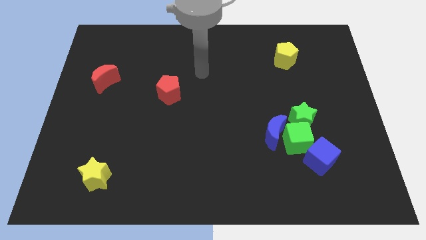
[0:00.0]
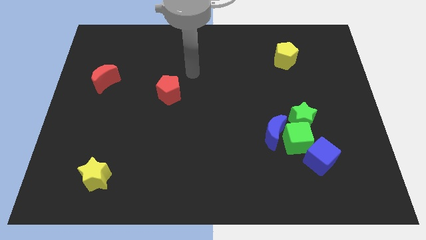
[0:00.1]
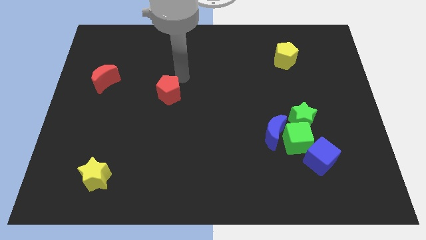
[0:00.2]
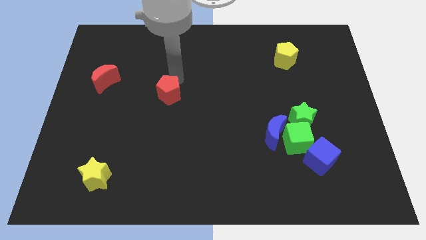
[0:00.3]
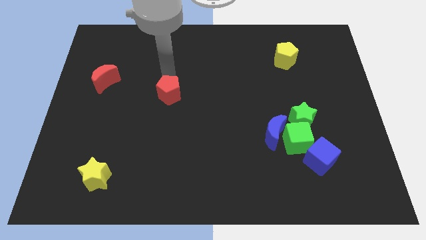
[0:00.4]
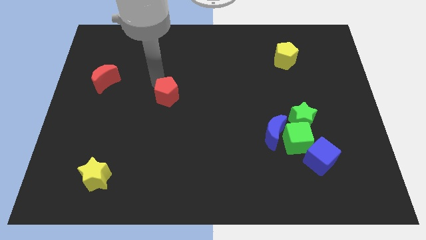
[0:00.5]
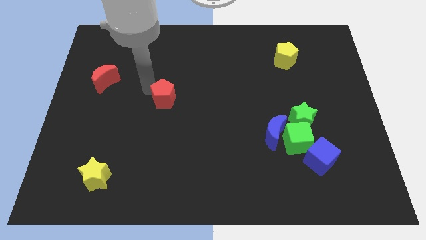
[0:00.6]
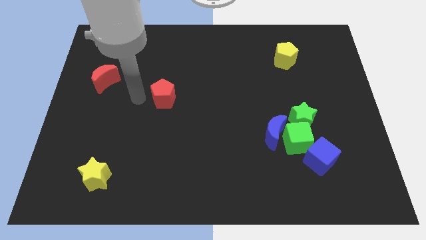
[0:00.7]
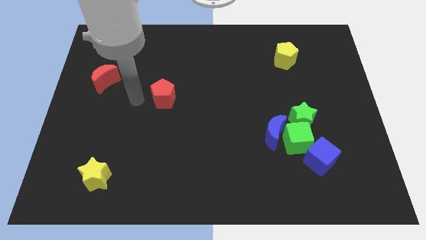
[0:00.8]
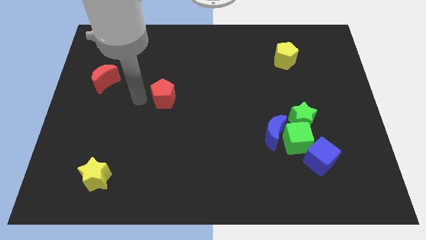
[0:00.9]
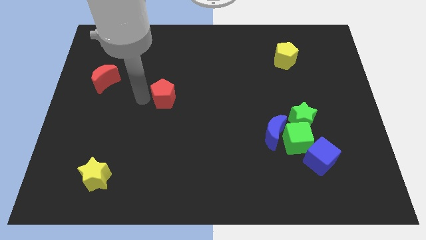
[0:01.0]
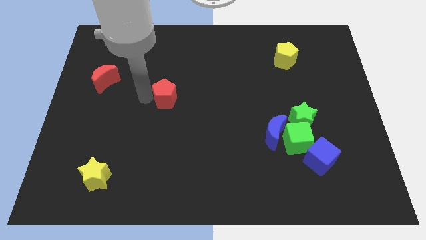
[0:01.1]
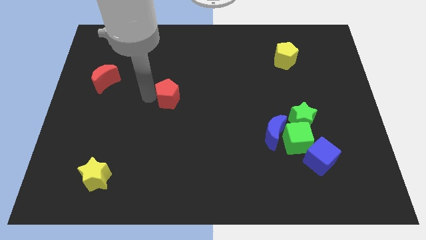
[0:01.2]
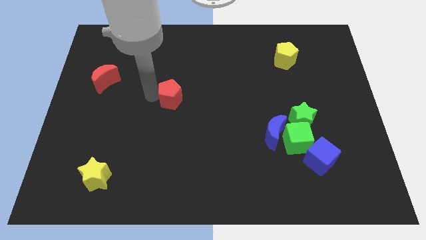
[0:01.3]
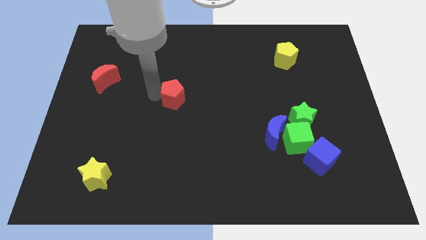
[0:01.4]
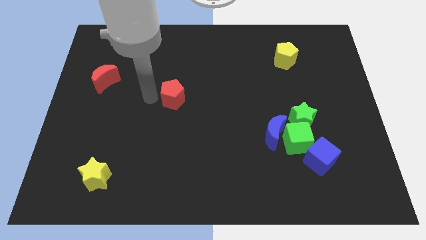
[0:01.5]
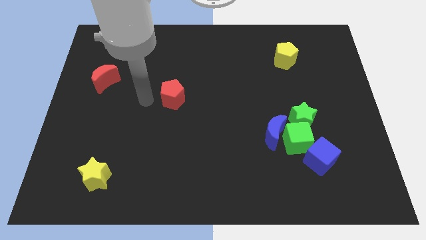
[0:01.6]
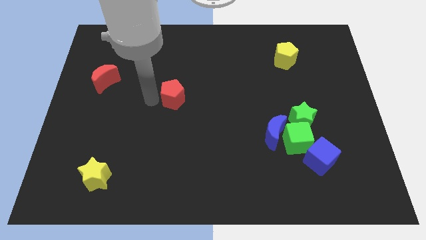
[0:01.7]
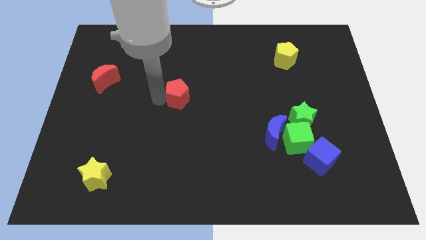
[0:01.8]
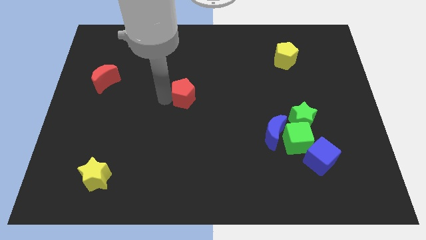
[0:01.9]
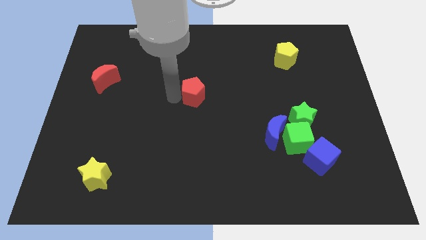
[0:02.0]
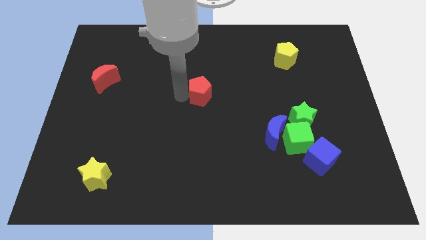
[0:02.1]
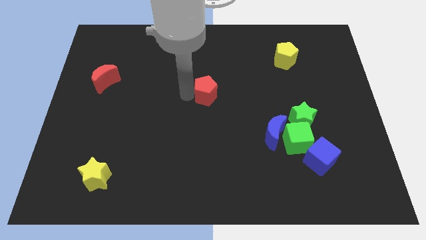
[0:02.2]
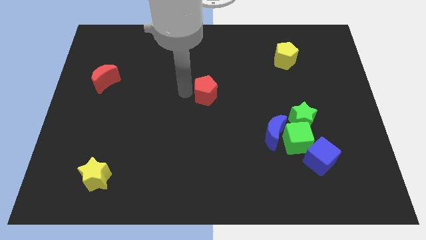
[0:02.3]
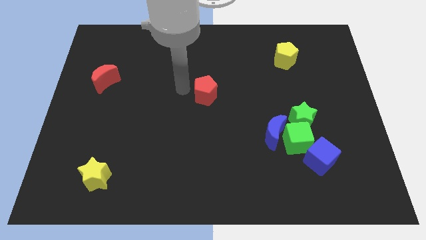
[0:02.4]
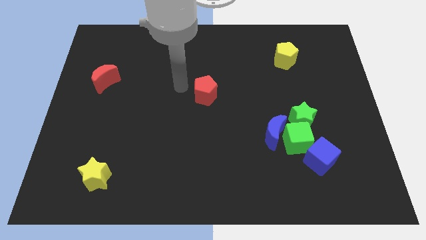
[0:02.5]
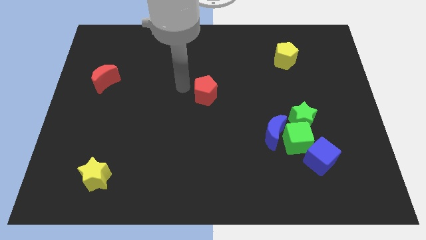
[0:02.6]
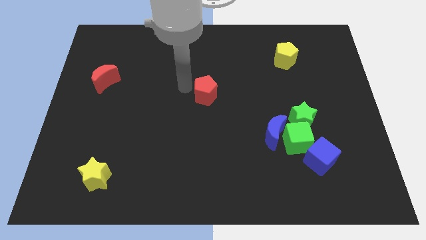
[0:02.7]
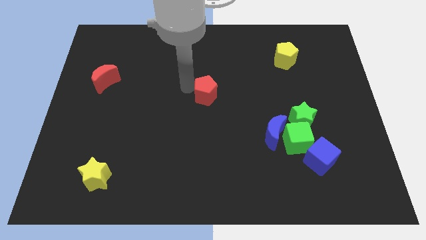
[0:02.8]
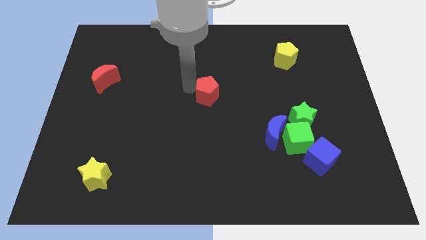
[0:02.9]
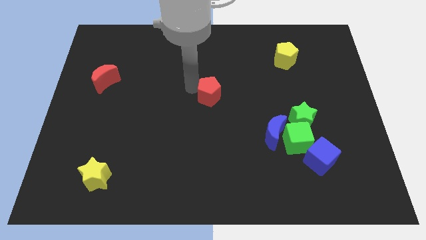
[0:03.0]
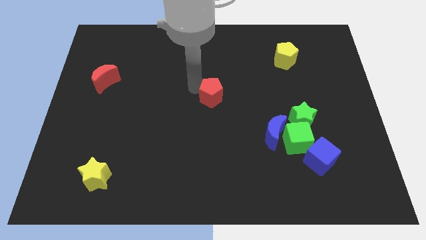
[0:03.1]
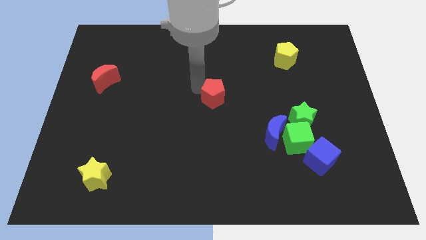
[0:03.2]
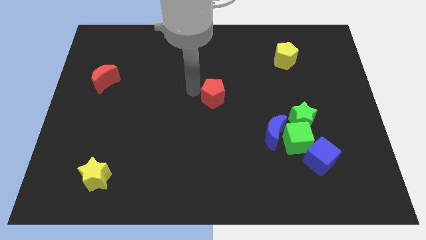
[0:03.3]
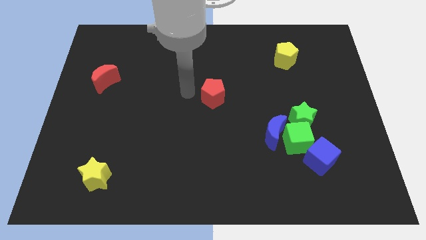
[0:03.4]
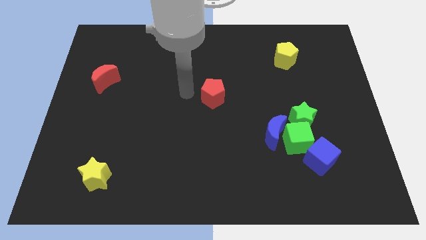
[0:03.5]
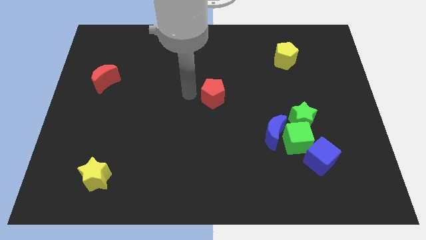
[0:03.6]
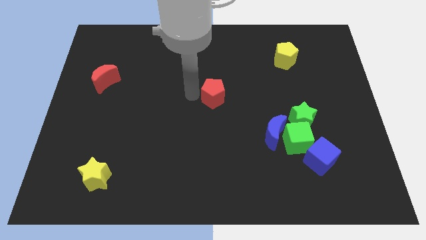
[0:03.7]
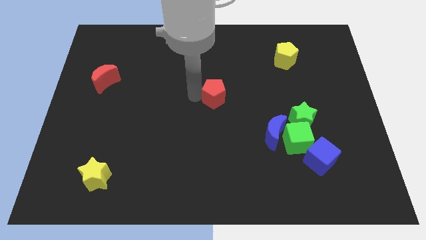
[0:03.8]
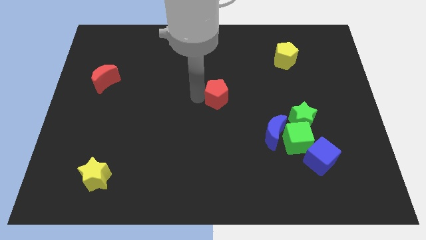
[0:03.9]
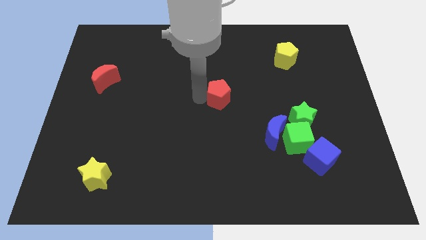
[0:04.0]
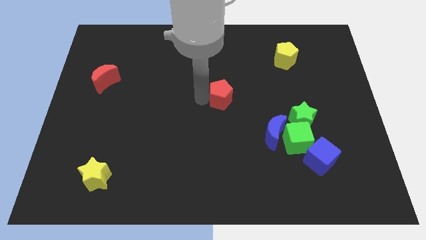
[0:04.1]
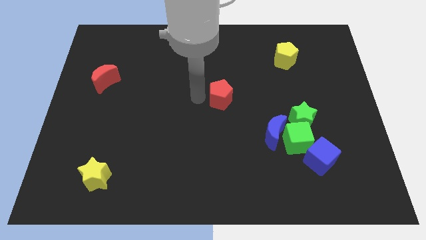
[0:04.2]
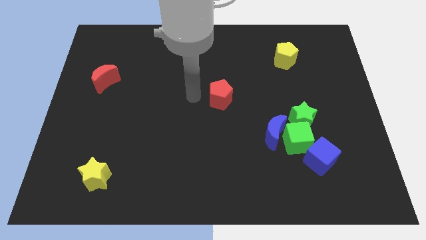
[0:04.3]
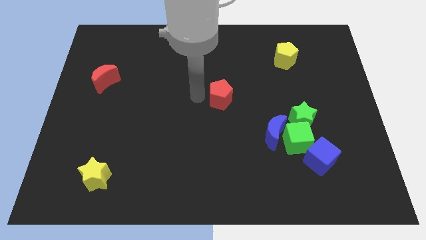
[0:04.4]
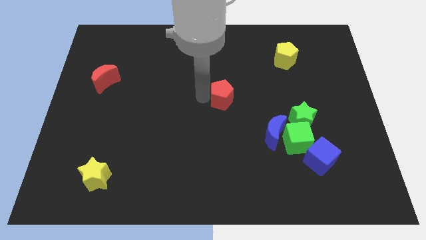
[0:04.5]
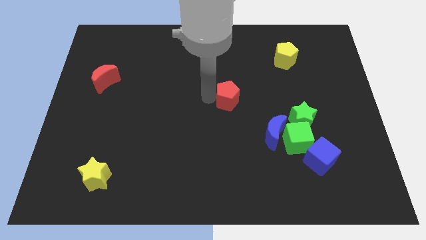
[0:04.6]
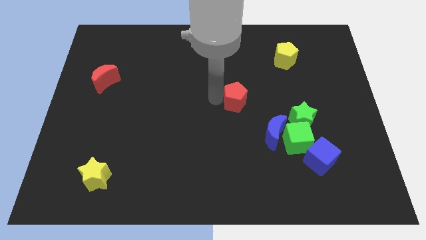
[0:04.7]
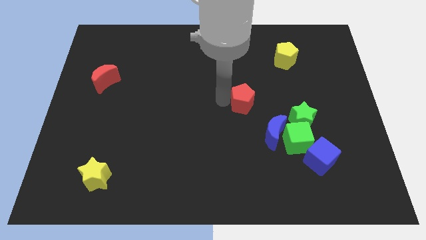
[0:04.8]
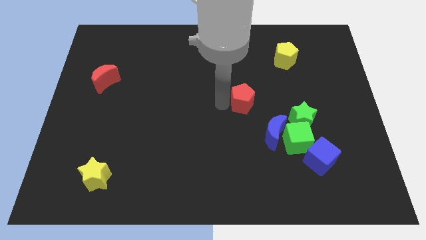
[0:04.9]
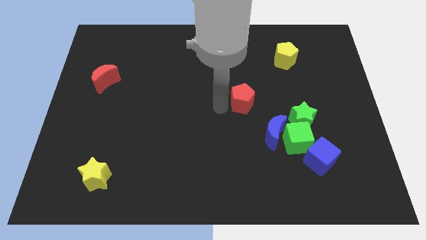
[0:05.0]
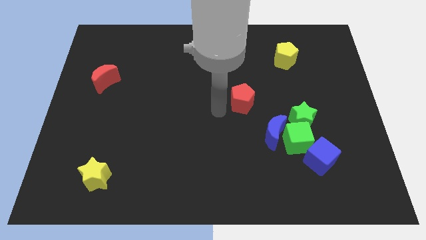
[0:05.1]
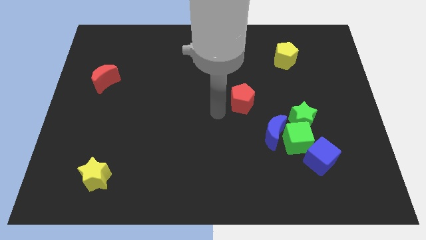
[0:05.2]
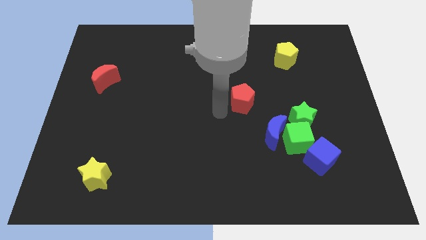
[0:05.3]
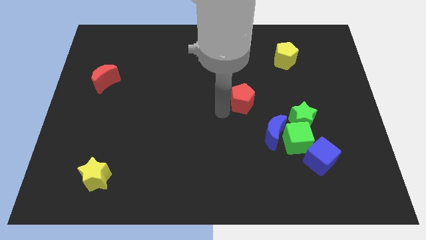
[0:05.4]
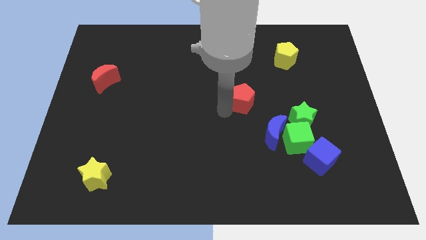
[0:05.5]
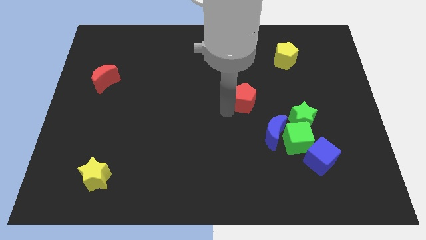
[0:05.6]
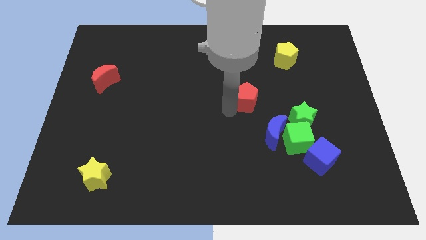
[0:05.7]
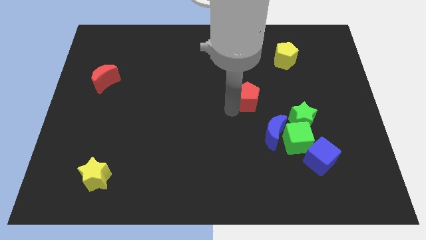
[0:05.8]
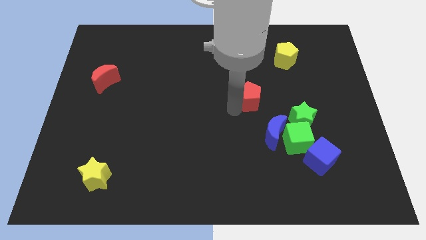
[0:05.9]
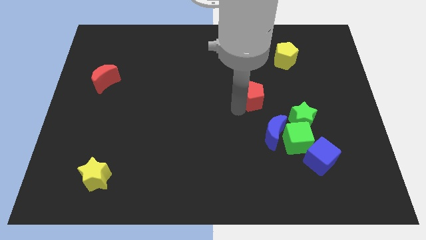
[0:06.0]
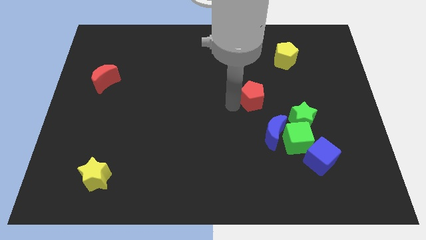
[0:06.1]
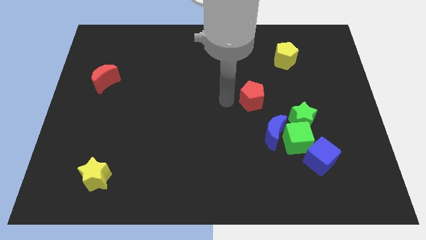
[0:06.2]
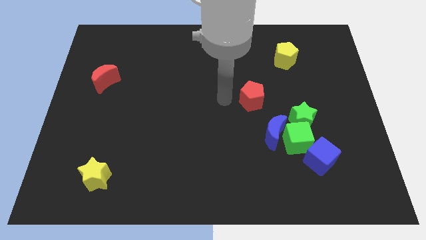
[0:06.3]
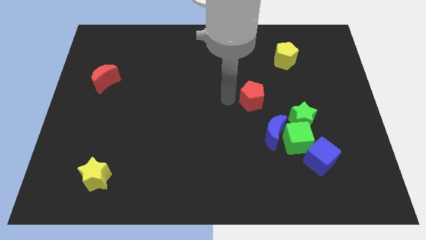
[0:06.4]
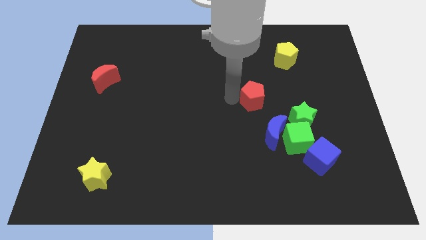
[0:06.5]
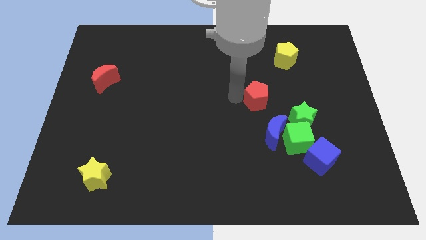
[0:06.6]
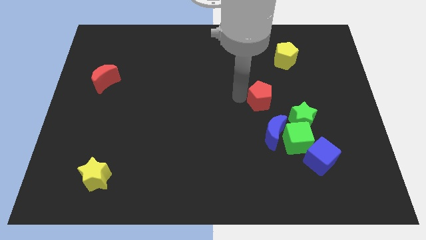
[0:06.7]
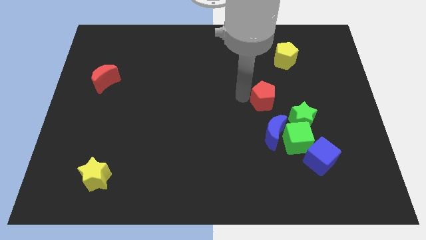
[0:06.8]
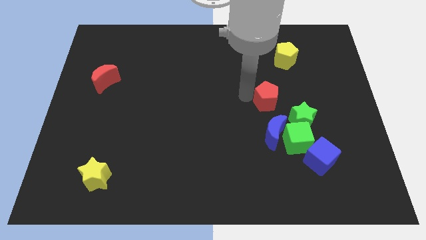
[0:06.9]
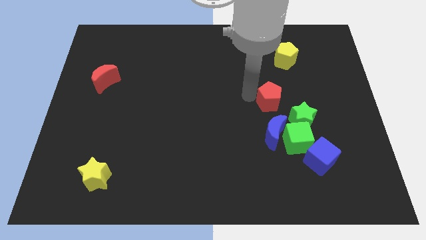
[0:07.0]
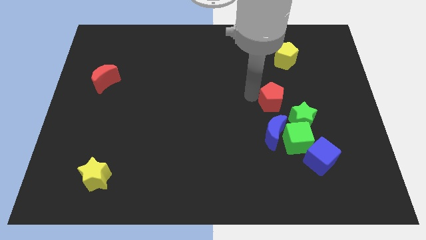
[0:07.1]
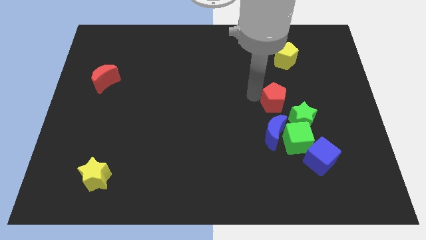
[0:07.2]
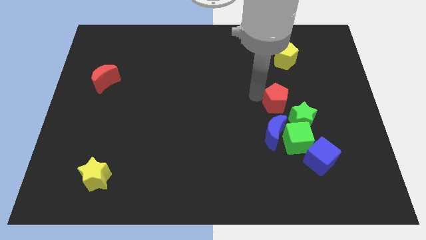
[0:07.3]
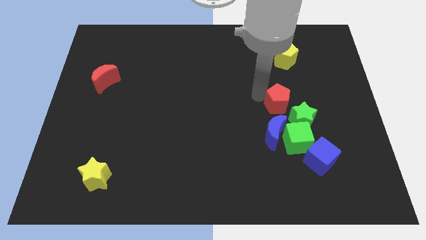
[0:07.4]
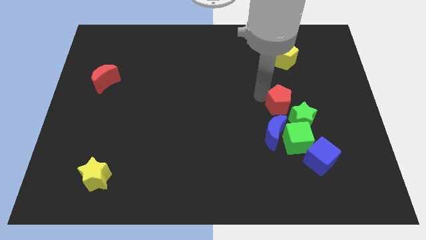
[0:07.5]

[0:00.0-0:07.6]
slide the red pentagon diagonally up and to the right of the blue moon

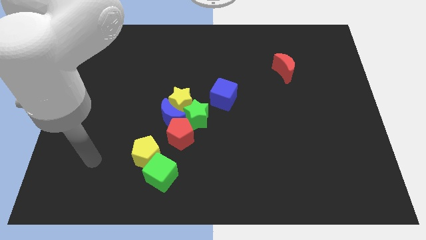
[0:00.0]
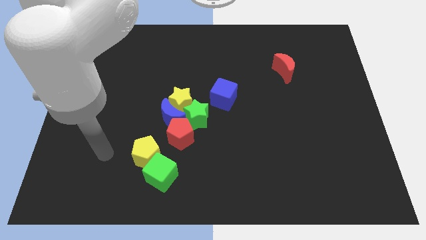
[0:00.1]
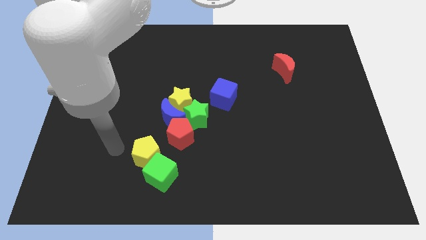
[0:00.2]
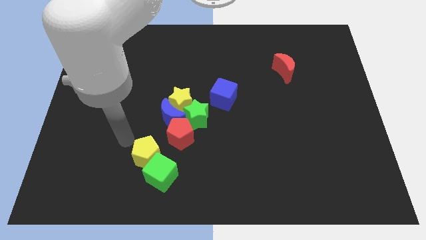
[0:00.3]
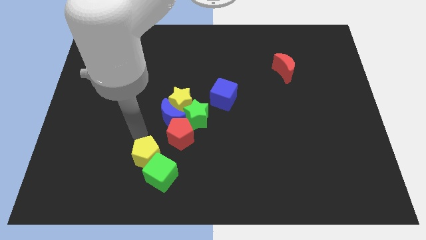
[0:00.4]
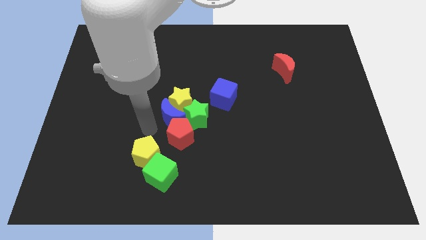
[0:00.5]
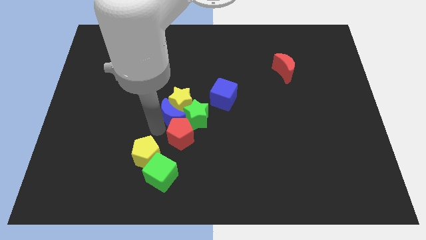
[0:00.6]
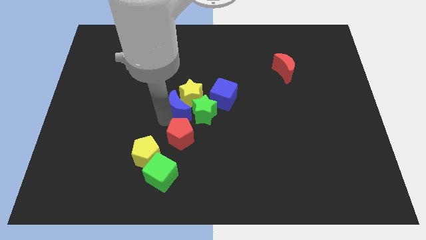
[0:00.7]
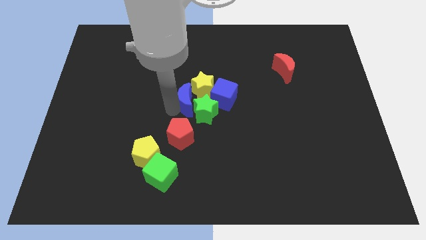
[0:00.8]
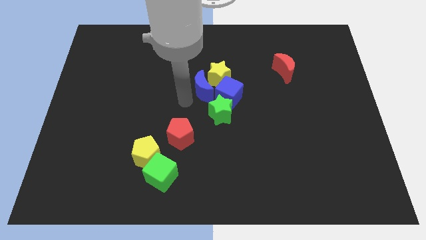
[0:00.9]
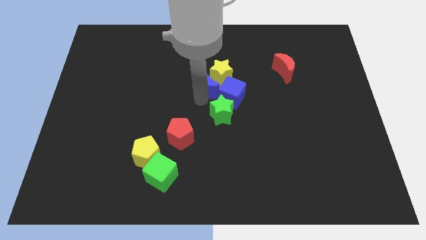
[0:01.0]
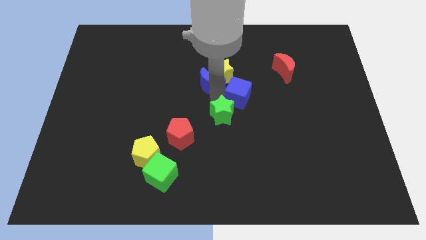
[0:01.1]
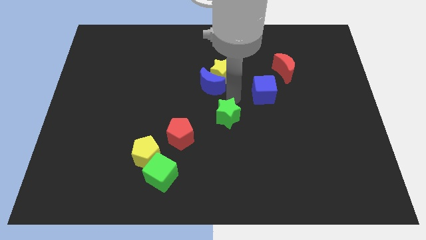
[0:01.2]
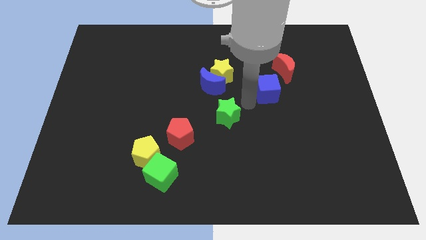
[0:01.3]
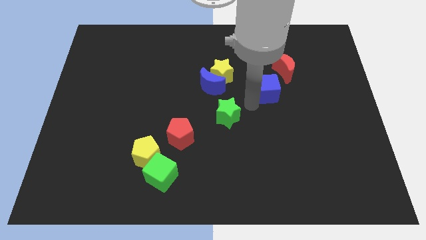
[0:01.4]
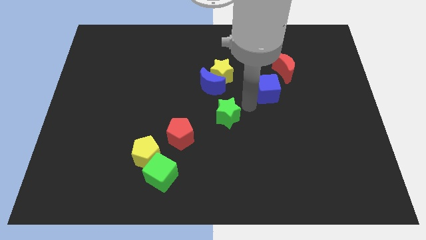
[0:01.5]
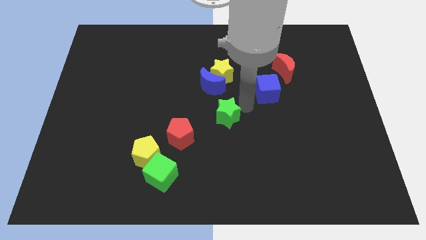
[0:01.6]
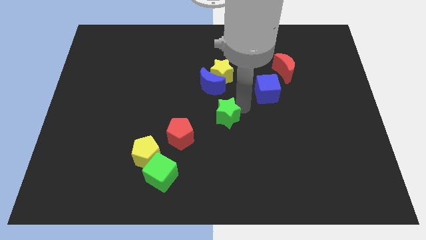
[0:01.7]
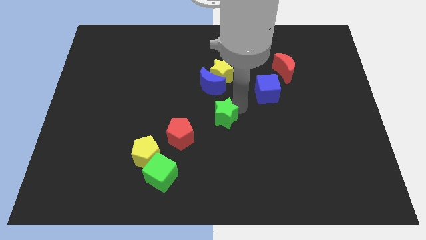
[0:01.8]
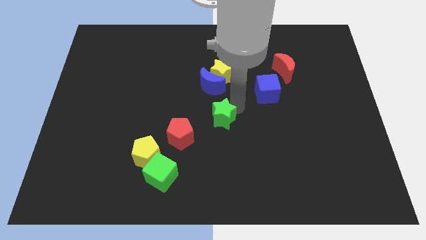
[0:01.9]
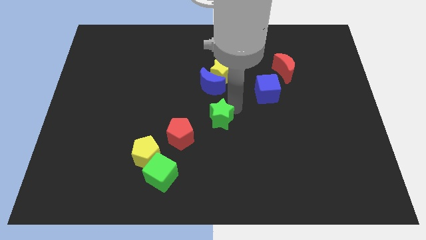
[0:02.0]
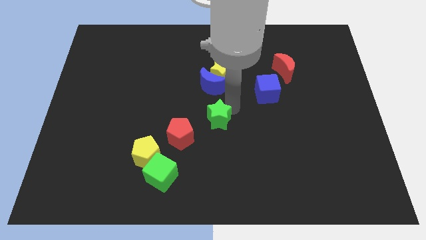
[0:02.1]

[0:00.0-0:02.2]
slide the green star to the right side of the red pentagon
